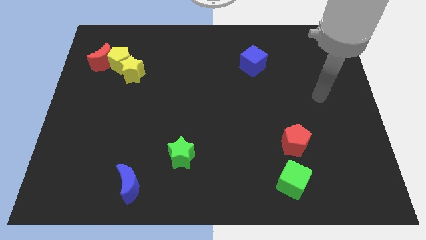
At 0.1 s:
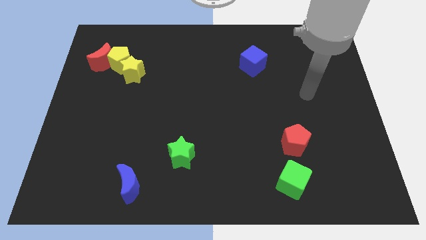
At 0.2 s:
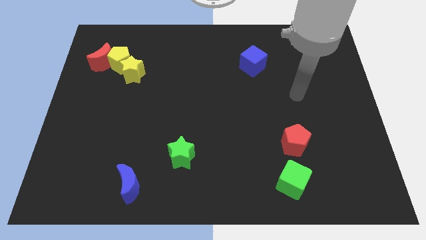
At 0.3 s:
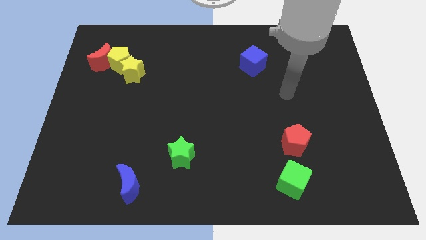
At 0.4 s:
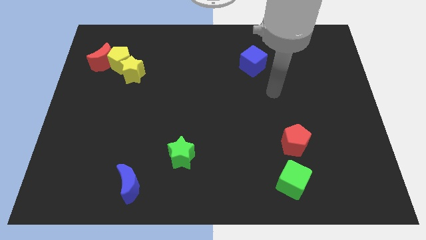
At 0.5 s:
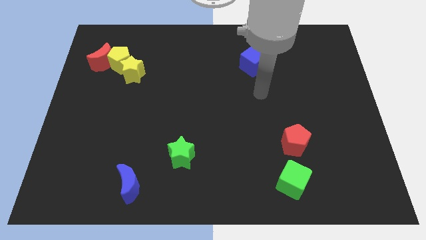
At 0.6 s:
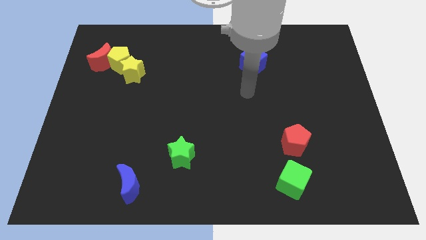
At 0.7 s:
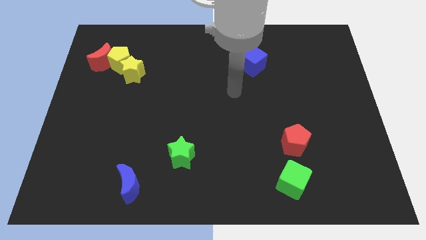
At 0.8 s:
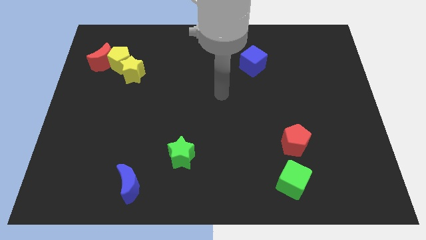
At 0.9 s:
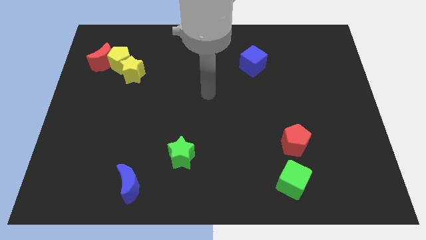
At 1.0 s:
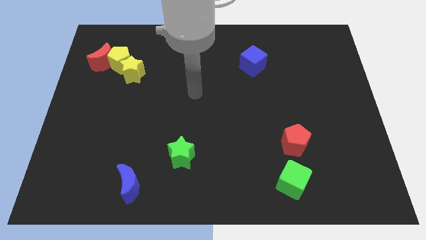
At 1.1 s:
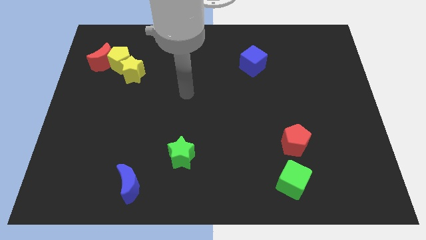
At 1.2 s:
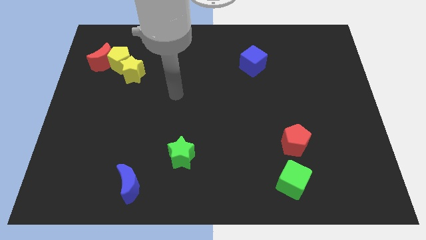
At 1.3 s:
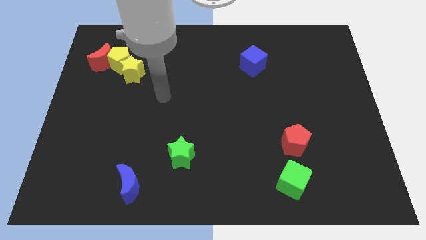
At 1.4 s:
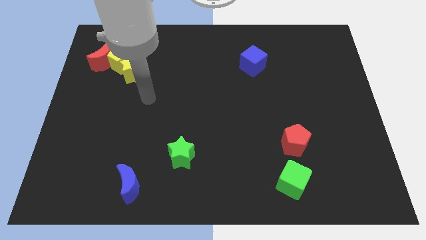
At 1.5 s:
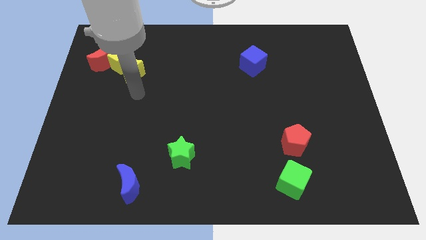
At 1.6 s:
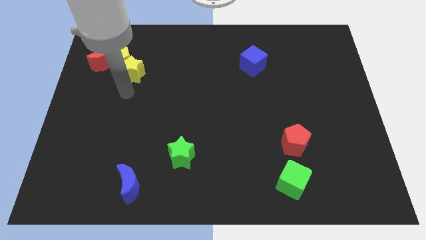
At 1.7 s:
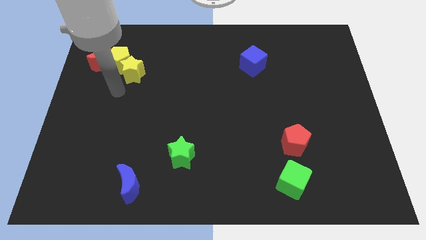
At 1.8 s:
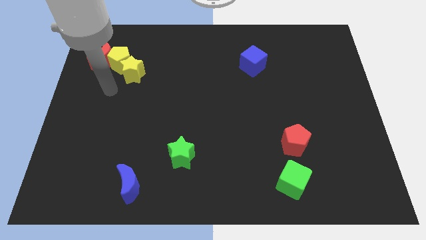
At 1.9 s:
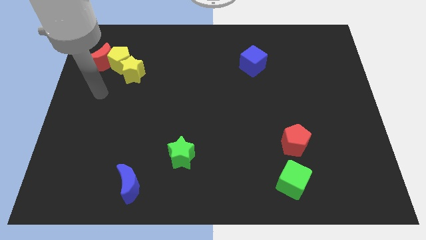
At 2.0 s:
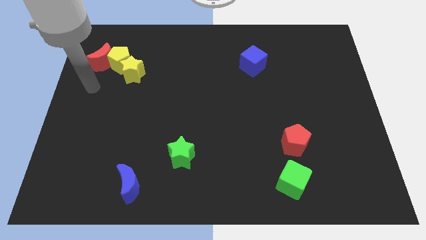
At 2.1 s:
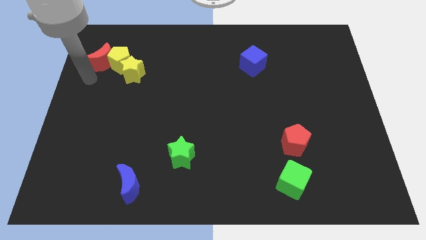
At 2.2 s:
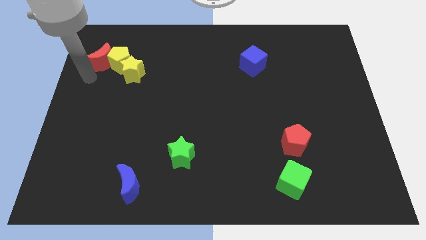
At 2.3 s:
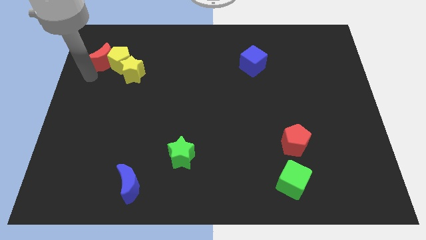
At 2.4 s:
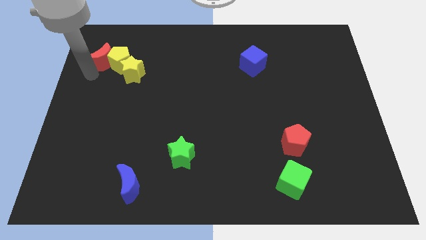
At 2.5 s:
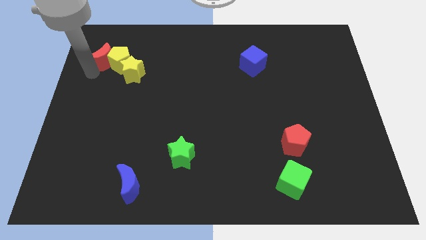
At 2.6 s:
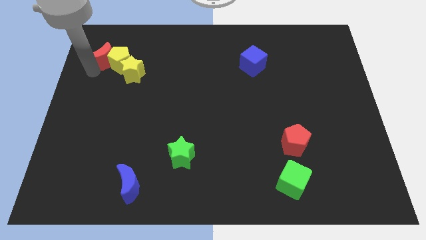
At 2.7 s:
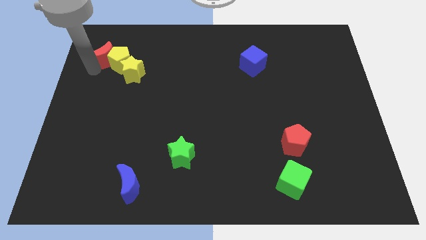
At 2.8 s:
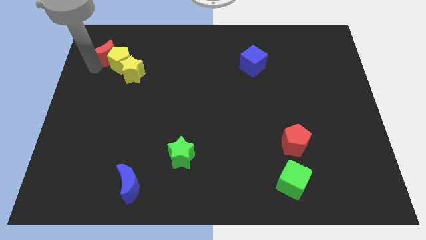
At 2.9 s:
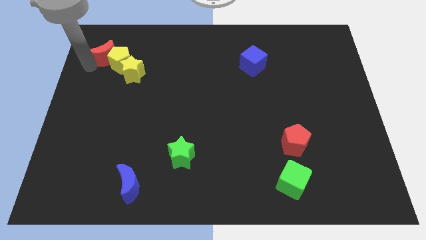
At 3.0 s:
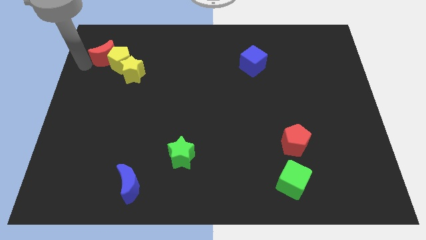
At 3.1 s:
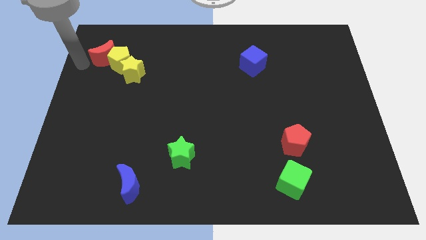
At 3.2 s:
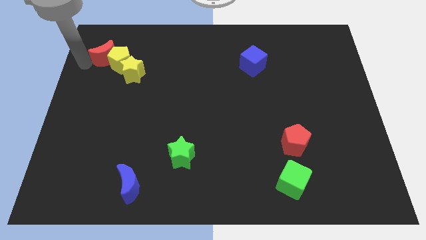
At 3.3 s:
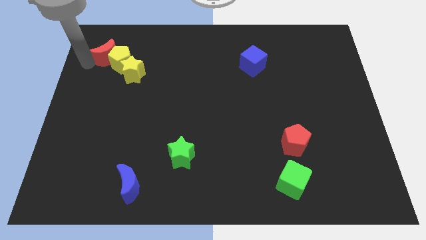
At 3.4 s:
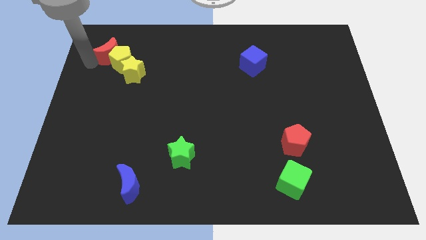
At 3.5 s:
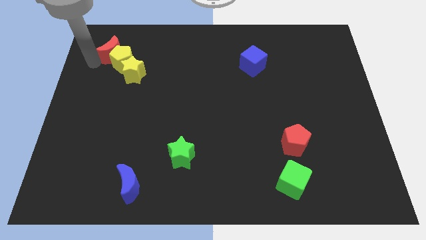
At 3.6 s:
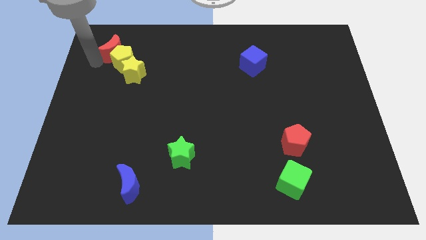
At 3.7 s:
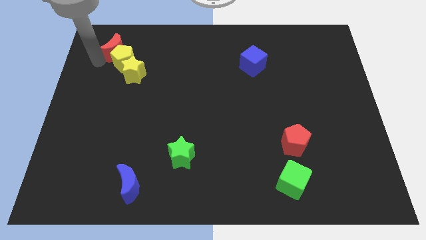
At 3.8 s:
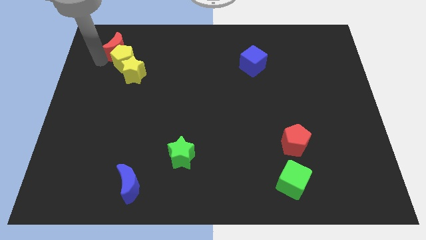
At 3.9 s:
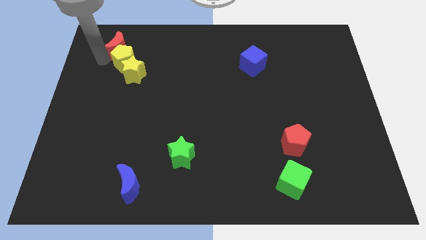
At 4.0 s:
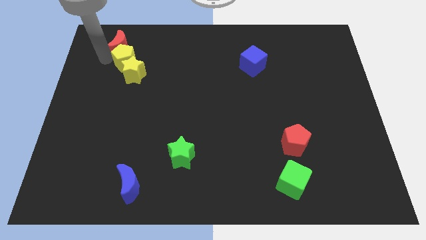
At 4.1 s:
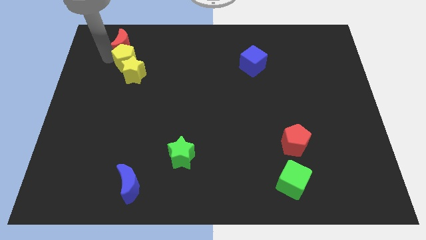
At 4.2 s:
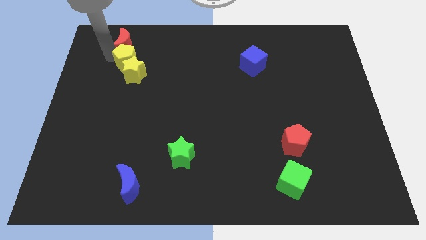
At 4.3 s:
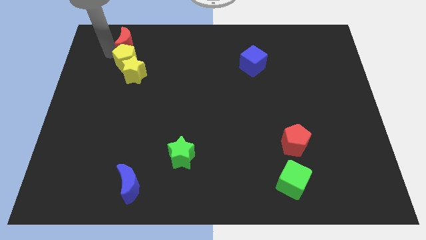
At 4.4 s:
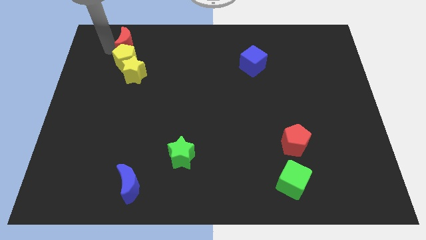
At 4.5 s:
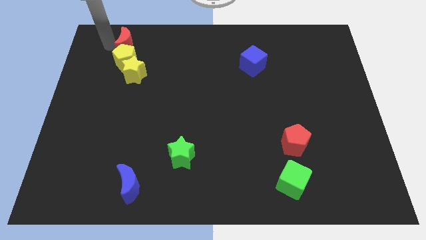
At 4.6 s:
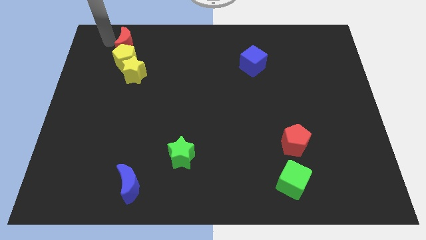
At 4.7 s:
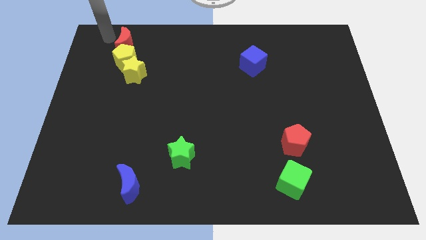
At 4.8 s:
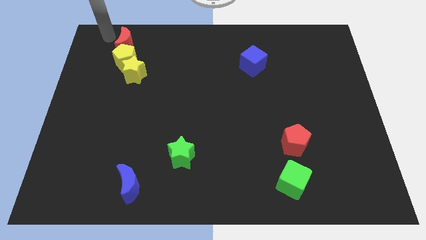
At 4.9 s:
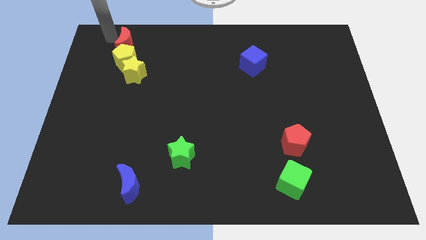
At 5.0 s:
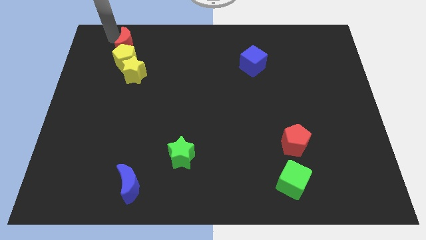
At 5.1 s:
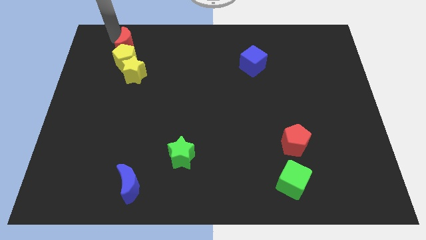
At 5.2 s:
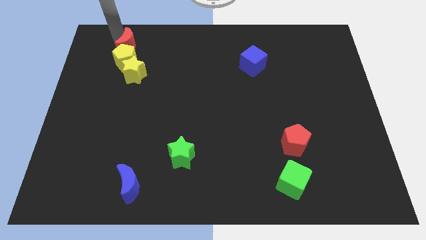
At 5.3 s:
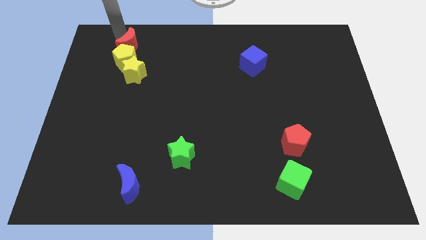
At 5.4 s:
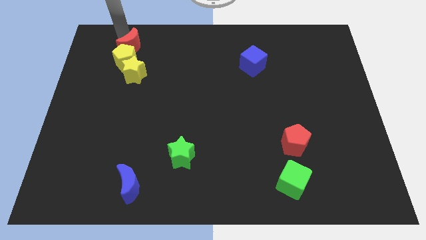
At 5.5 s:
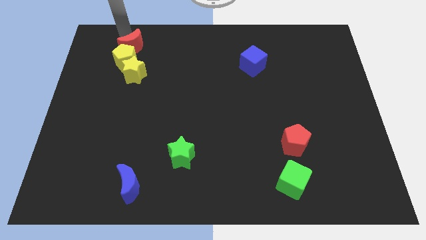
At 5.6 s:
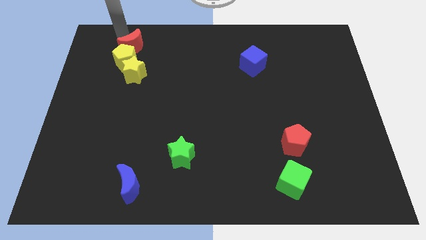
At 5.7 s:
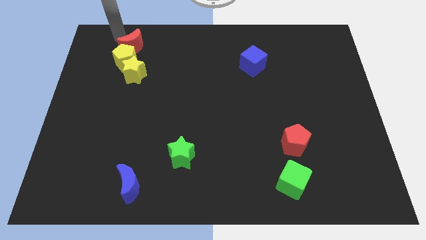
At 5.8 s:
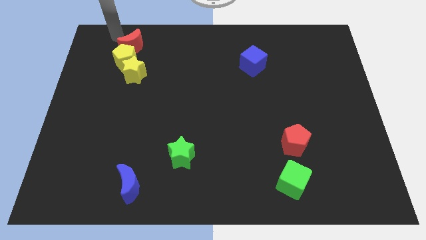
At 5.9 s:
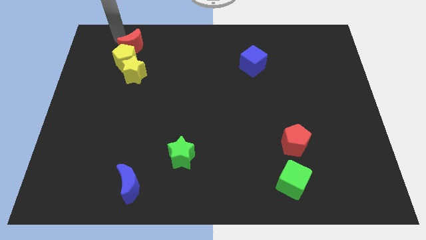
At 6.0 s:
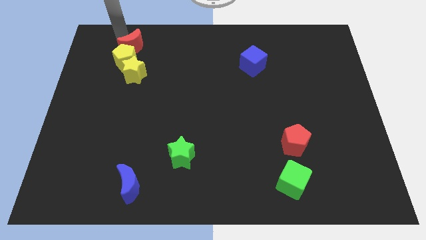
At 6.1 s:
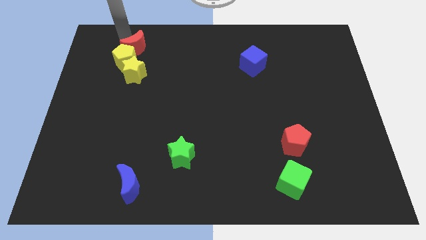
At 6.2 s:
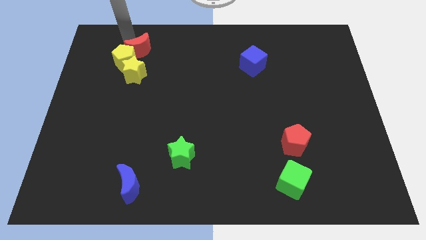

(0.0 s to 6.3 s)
slide the red moon to the right a bit

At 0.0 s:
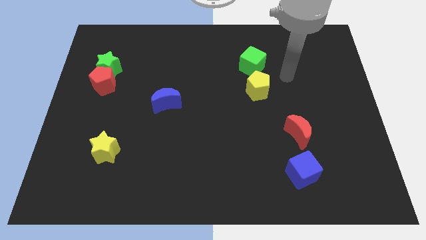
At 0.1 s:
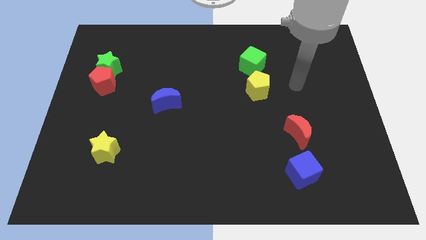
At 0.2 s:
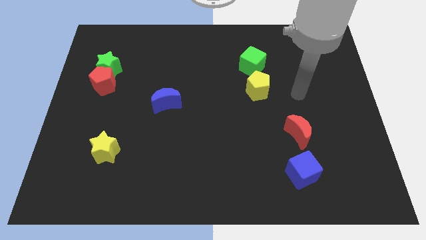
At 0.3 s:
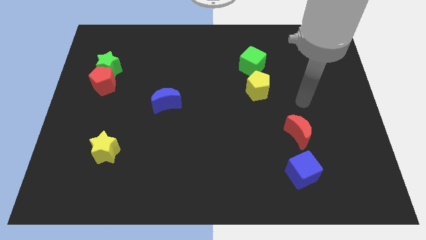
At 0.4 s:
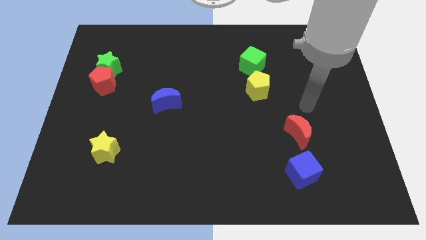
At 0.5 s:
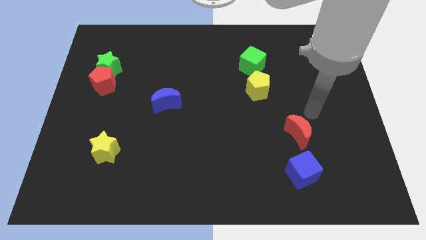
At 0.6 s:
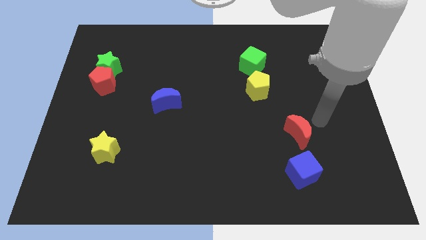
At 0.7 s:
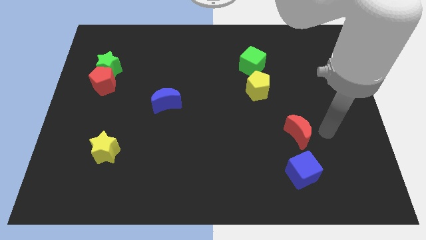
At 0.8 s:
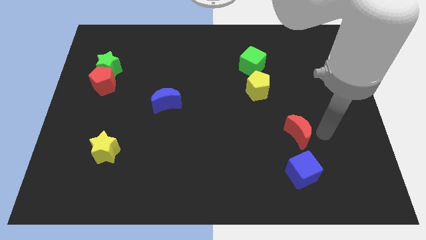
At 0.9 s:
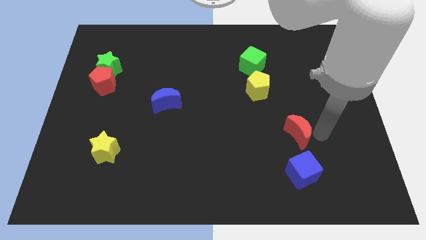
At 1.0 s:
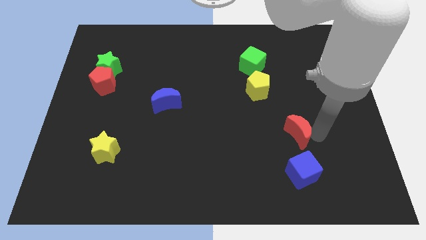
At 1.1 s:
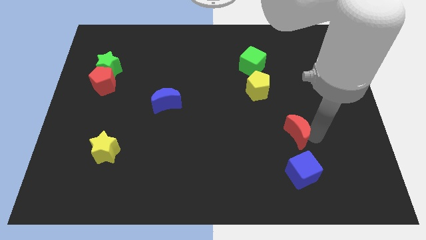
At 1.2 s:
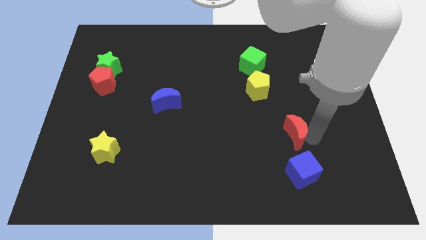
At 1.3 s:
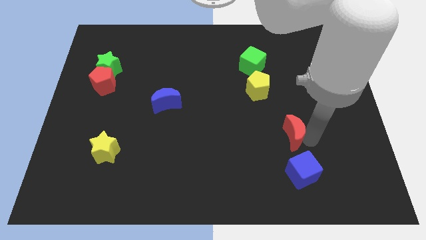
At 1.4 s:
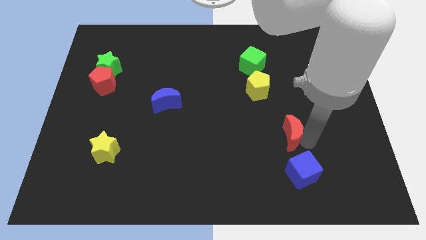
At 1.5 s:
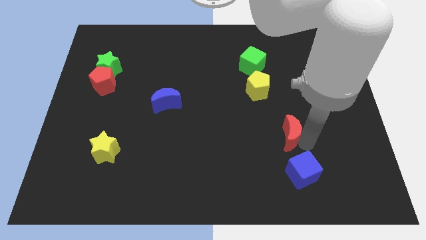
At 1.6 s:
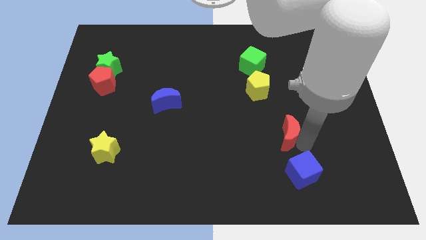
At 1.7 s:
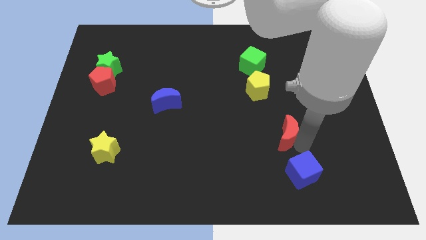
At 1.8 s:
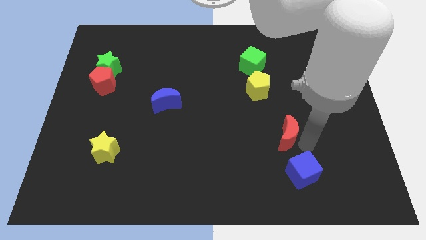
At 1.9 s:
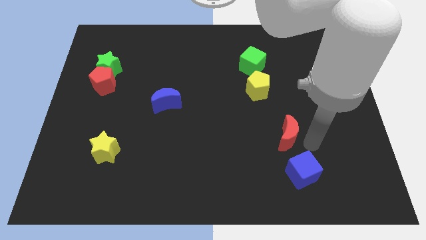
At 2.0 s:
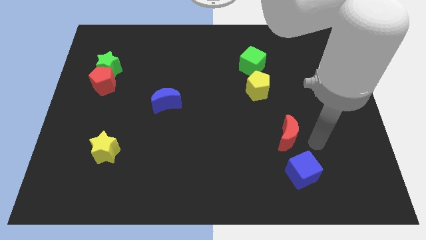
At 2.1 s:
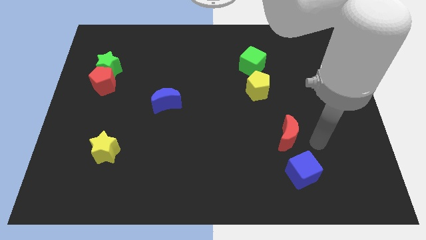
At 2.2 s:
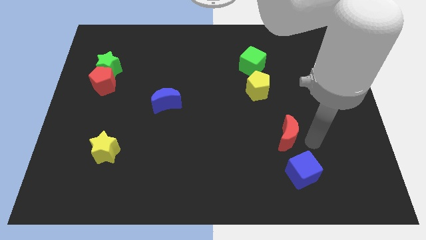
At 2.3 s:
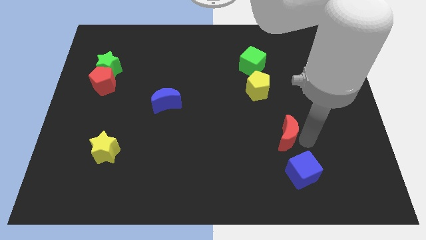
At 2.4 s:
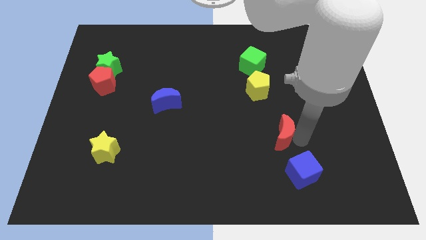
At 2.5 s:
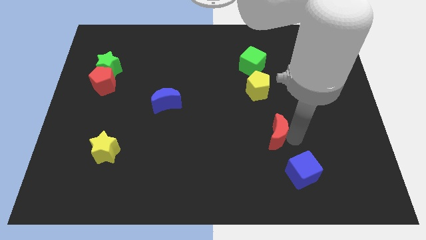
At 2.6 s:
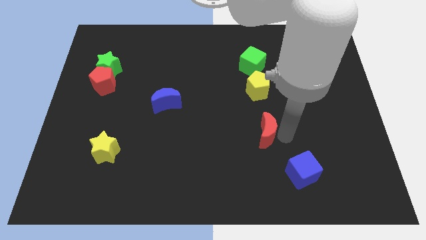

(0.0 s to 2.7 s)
slightly push the red moon left
